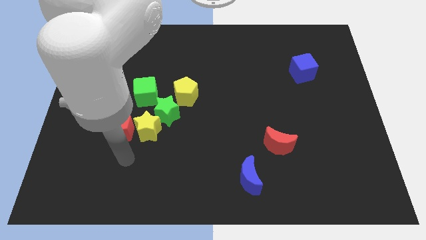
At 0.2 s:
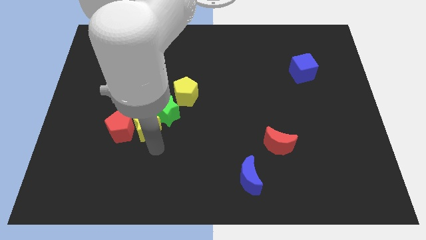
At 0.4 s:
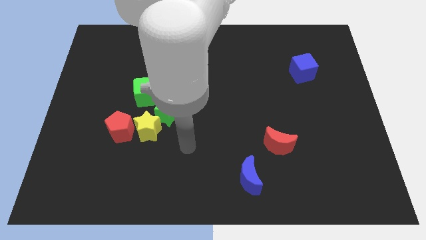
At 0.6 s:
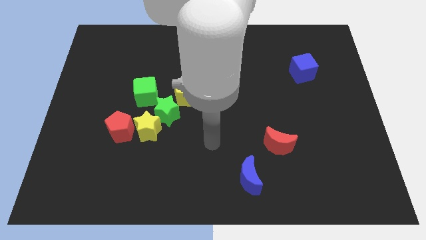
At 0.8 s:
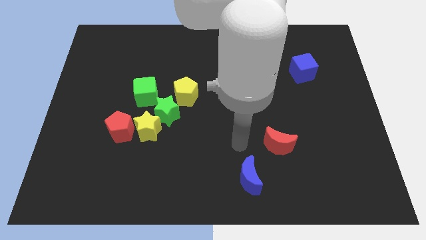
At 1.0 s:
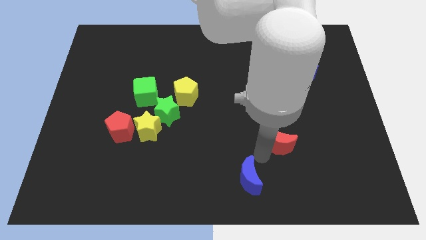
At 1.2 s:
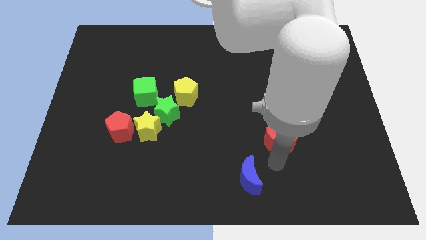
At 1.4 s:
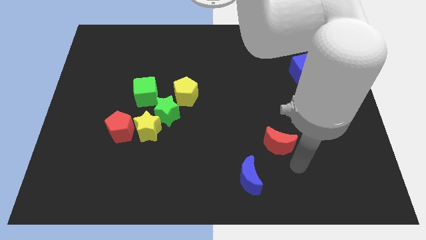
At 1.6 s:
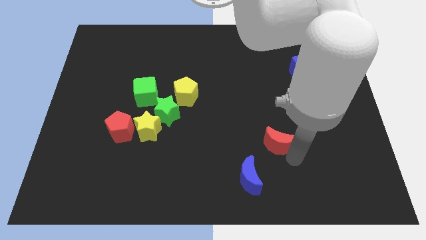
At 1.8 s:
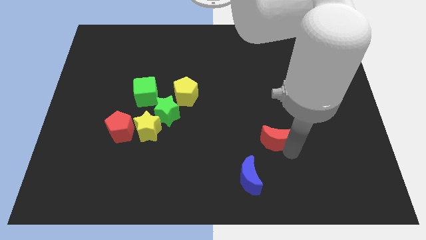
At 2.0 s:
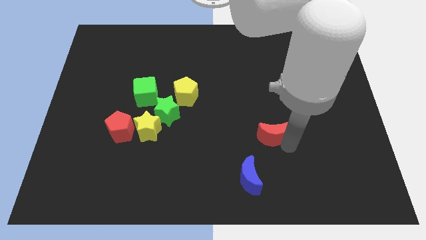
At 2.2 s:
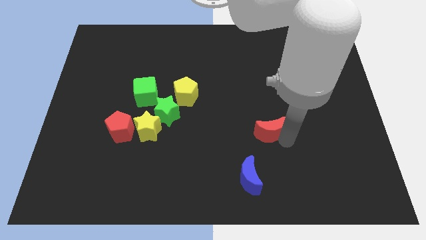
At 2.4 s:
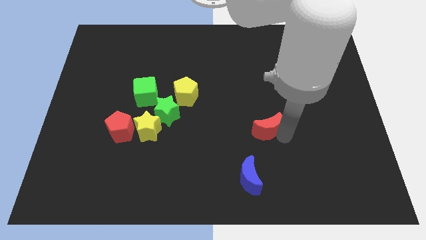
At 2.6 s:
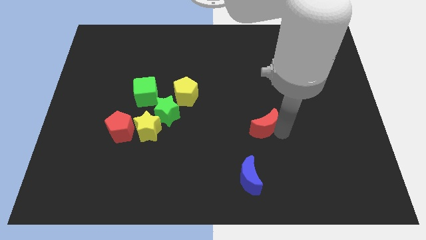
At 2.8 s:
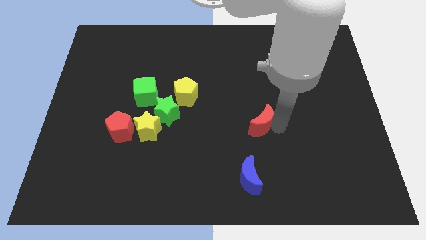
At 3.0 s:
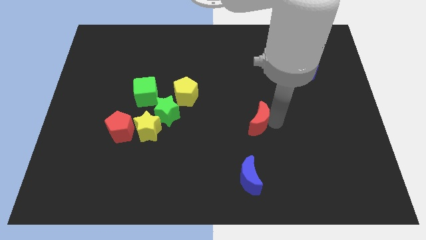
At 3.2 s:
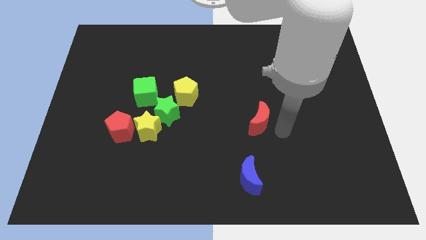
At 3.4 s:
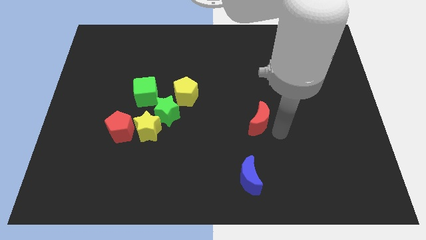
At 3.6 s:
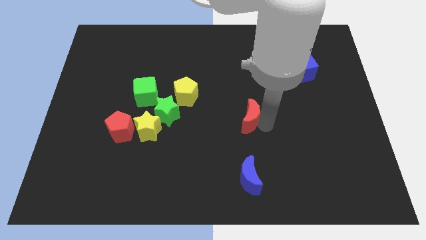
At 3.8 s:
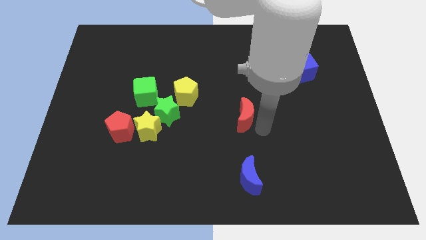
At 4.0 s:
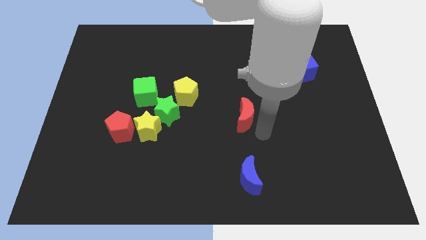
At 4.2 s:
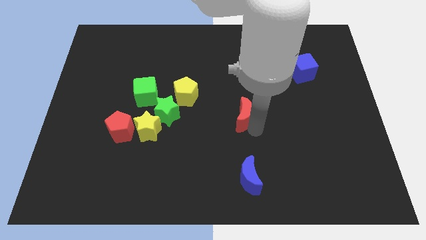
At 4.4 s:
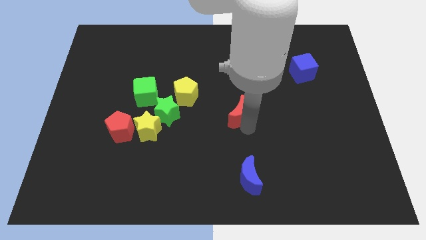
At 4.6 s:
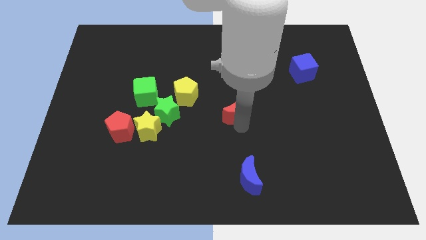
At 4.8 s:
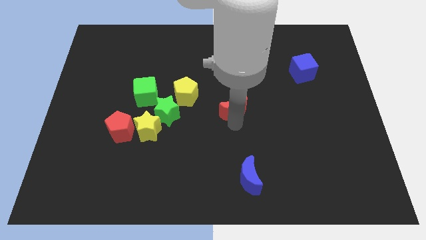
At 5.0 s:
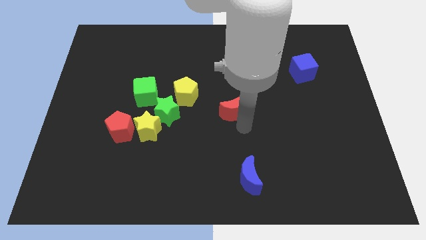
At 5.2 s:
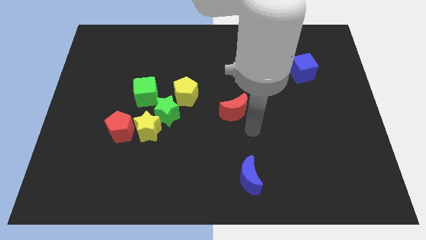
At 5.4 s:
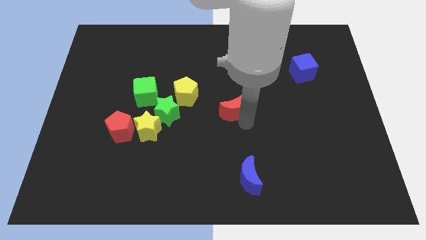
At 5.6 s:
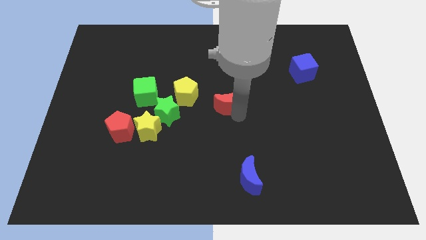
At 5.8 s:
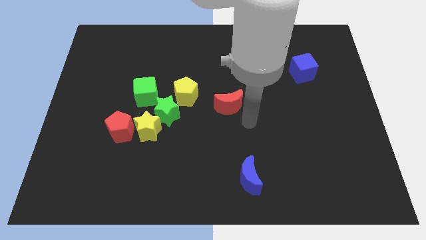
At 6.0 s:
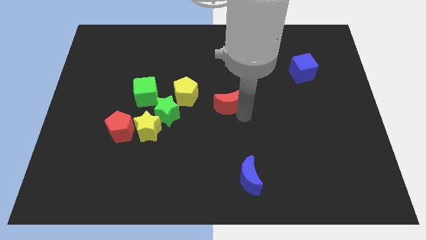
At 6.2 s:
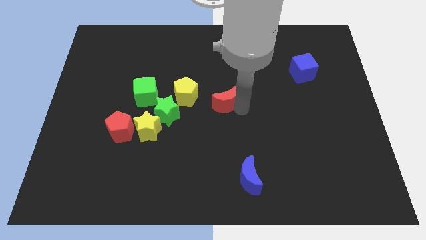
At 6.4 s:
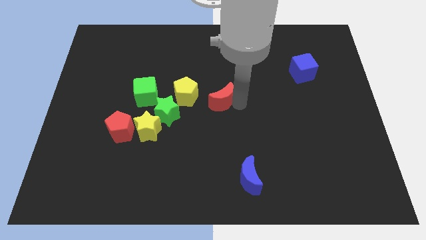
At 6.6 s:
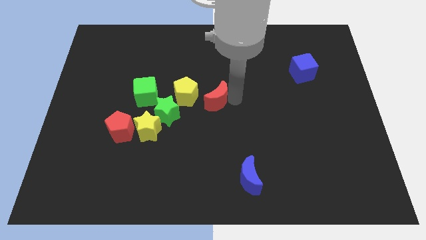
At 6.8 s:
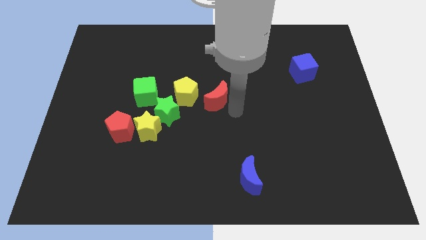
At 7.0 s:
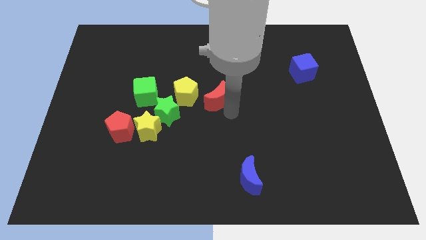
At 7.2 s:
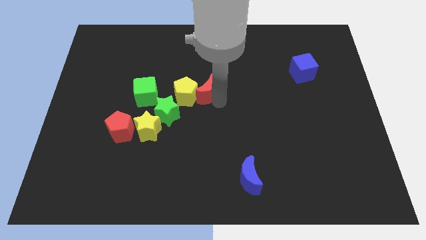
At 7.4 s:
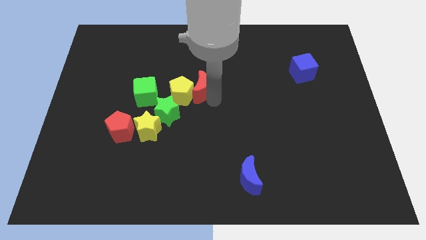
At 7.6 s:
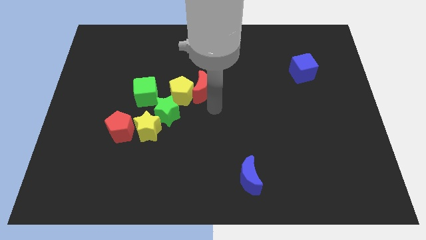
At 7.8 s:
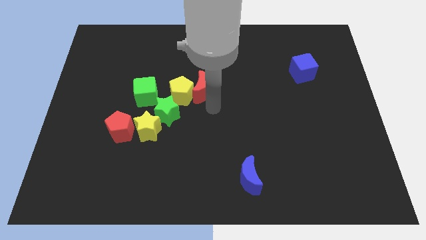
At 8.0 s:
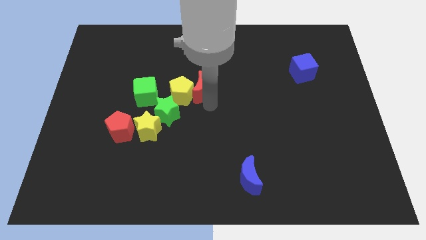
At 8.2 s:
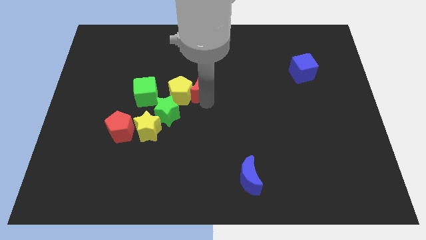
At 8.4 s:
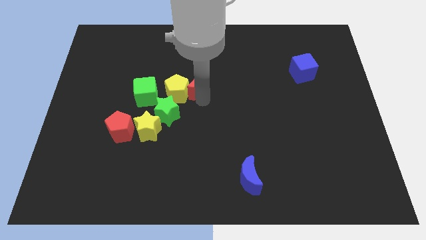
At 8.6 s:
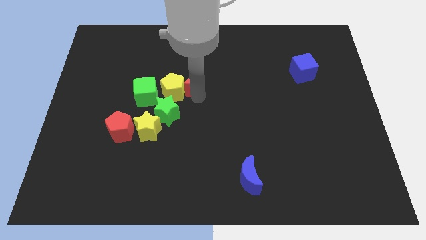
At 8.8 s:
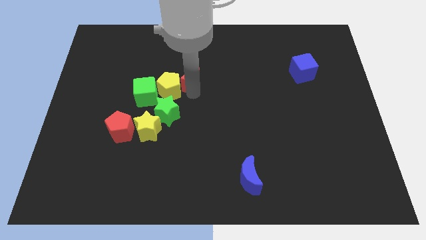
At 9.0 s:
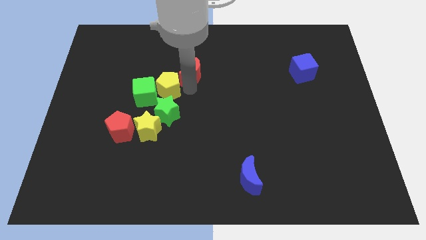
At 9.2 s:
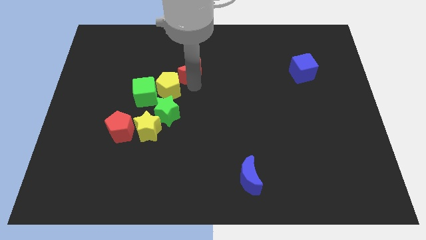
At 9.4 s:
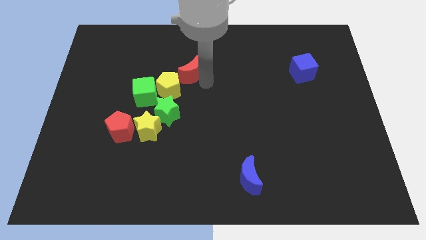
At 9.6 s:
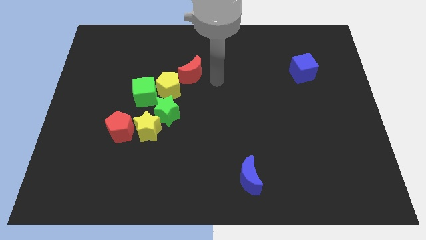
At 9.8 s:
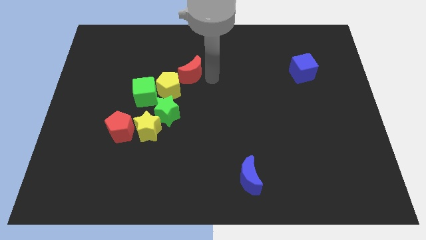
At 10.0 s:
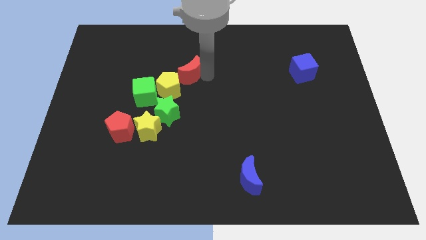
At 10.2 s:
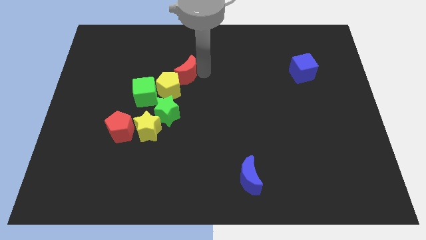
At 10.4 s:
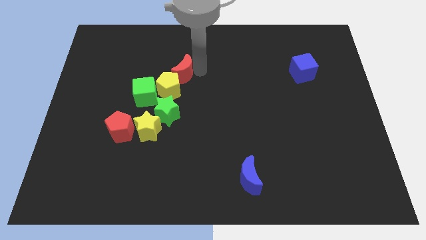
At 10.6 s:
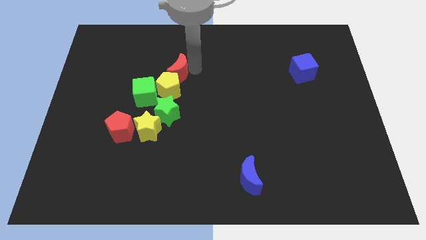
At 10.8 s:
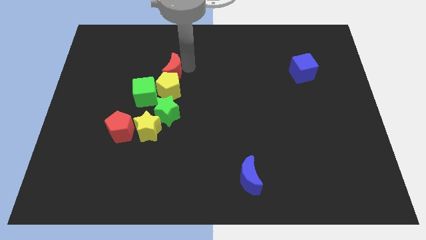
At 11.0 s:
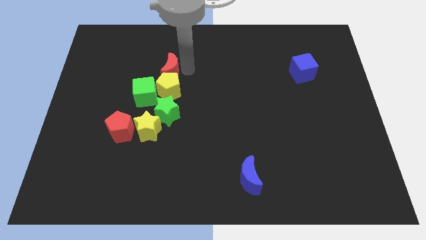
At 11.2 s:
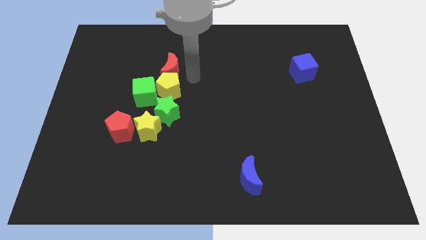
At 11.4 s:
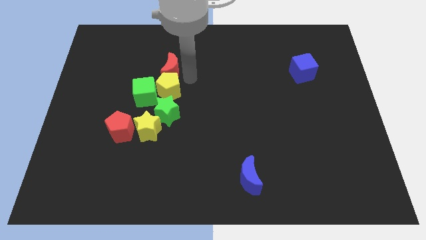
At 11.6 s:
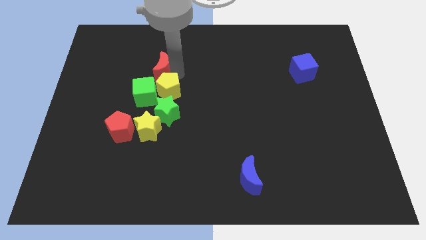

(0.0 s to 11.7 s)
slide the red moon above the green cube

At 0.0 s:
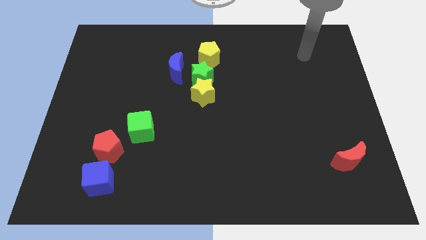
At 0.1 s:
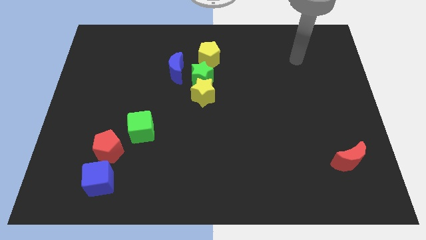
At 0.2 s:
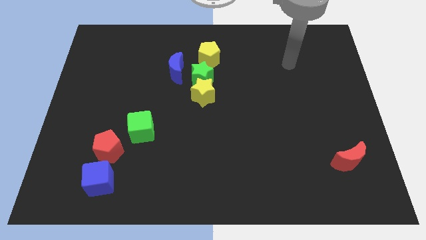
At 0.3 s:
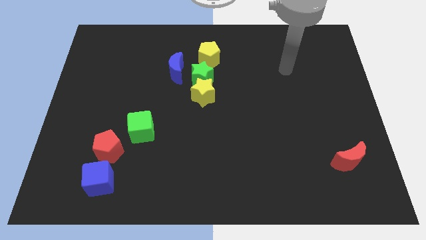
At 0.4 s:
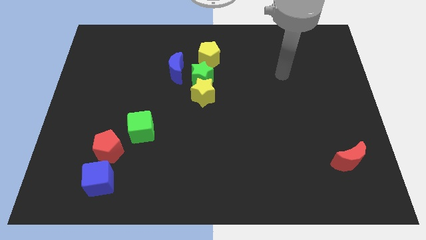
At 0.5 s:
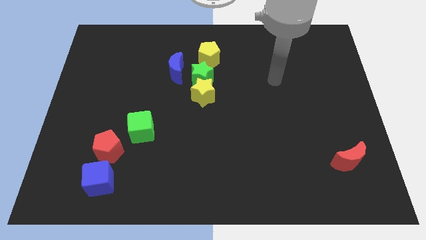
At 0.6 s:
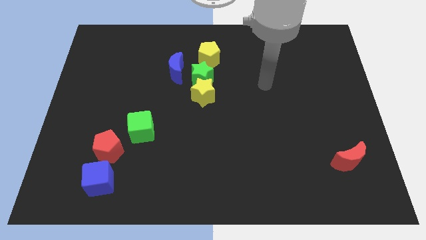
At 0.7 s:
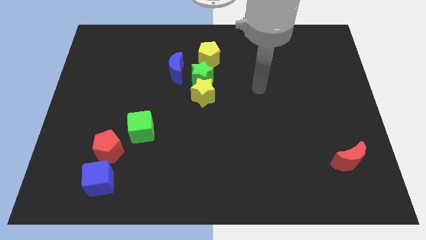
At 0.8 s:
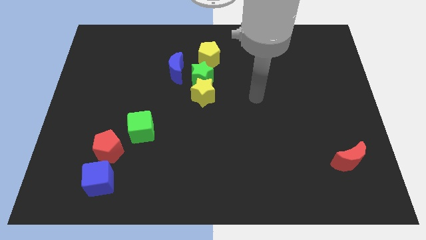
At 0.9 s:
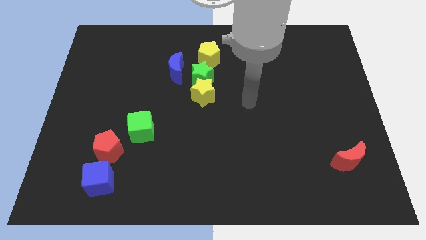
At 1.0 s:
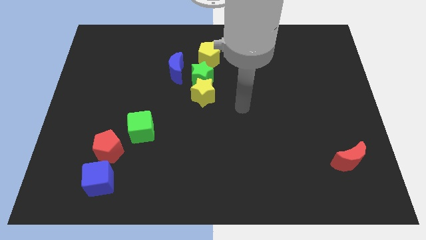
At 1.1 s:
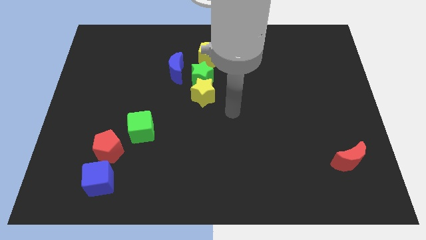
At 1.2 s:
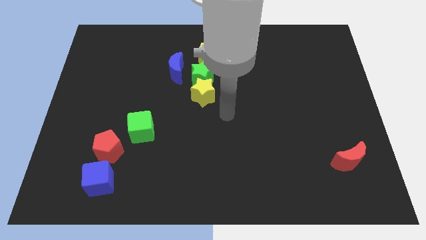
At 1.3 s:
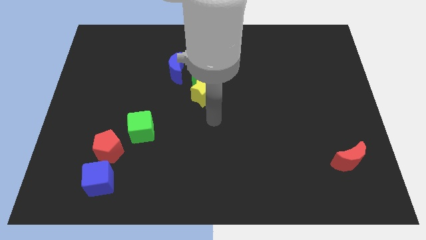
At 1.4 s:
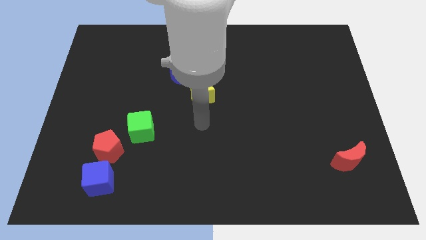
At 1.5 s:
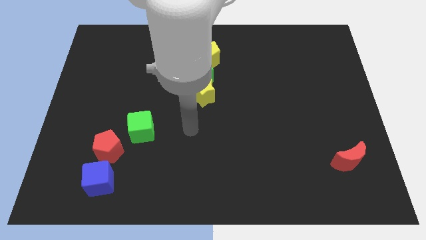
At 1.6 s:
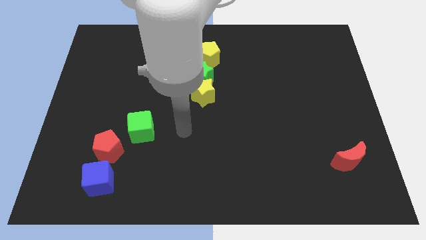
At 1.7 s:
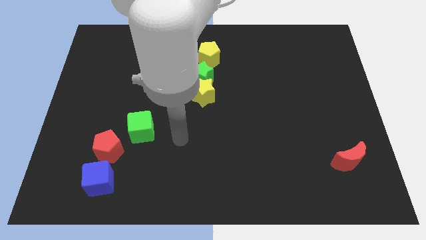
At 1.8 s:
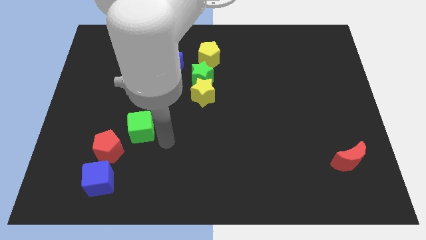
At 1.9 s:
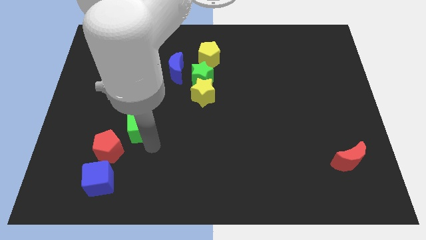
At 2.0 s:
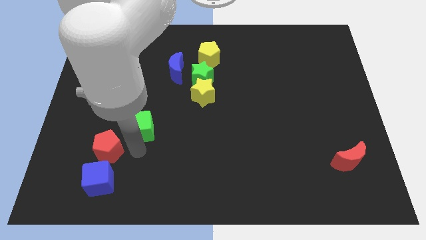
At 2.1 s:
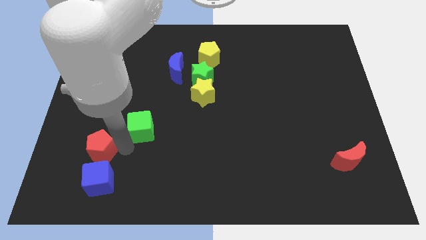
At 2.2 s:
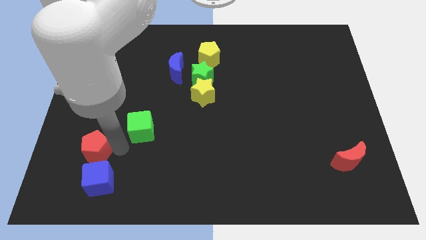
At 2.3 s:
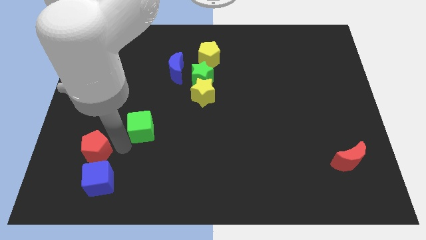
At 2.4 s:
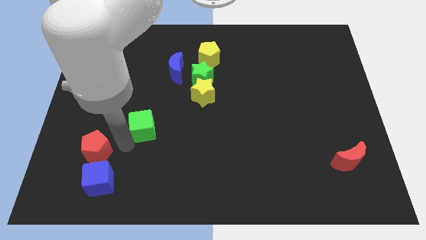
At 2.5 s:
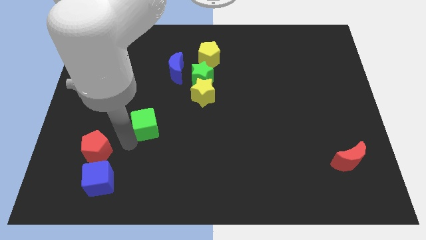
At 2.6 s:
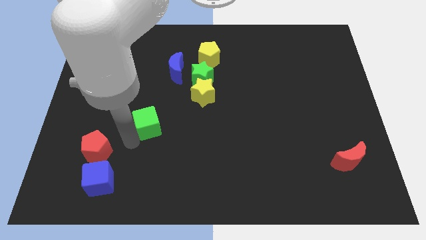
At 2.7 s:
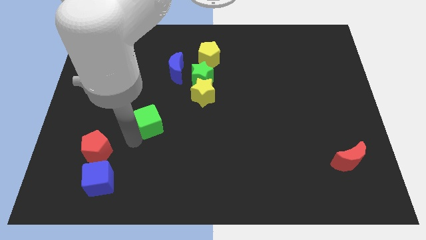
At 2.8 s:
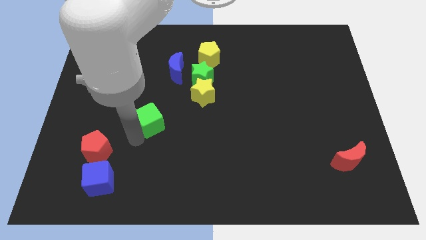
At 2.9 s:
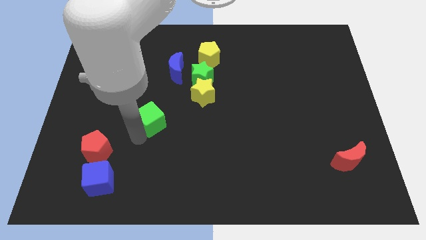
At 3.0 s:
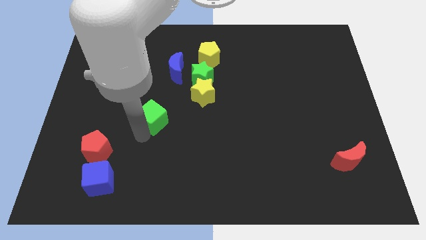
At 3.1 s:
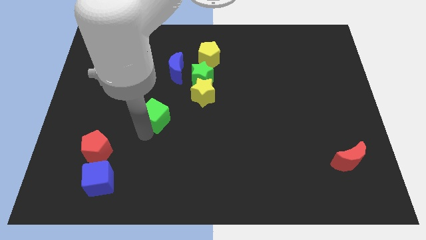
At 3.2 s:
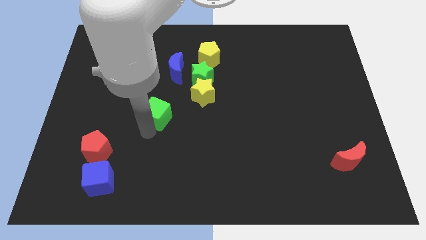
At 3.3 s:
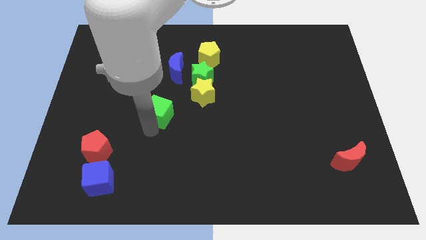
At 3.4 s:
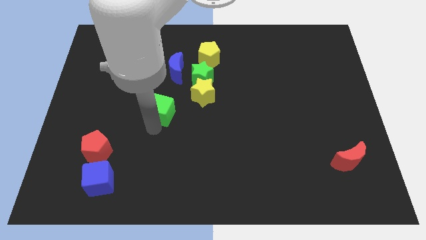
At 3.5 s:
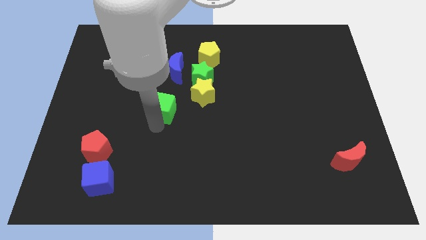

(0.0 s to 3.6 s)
push the green cube to the left of the yellow star
